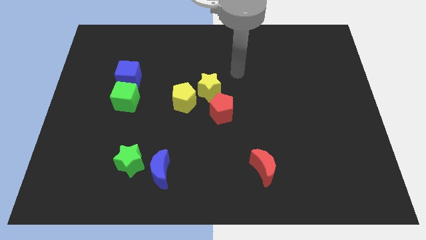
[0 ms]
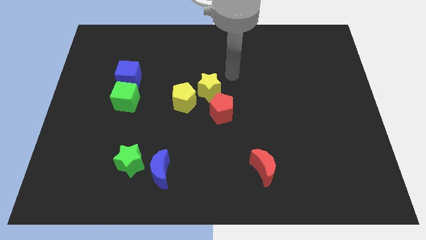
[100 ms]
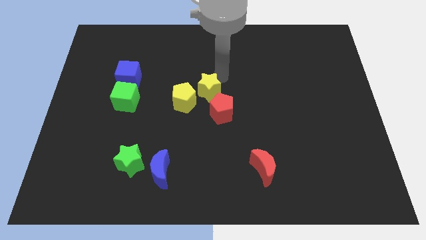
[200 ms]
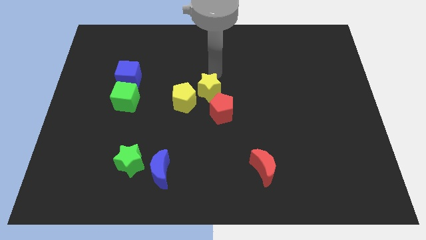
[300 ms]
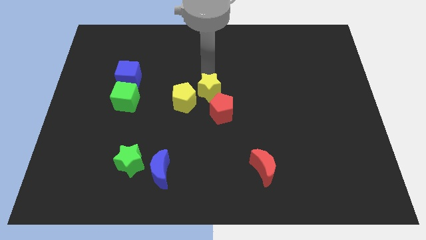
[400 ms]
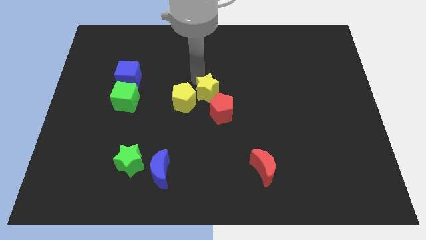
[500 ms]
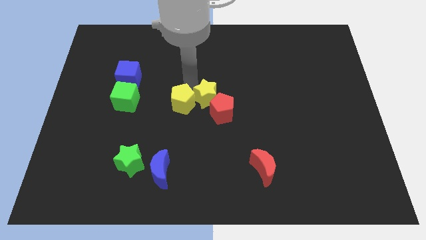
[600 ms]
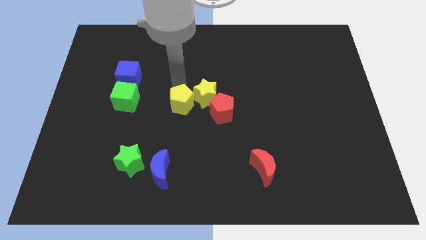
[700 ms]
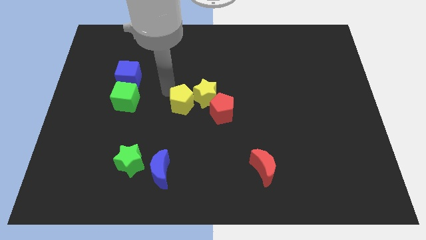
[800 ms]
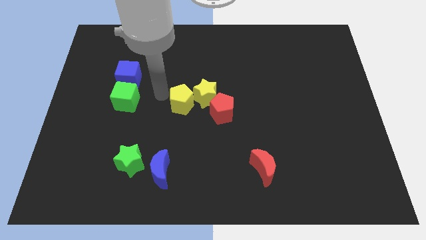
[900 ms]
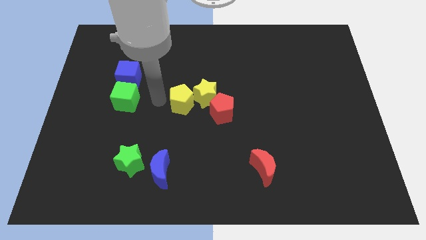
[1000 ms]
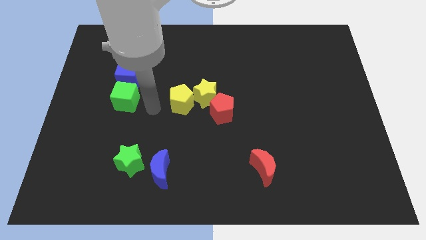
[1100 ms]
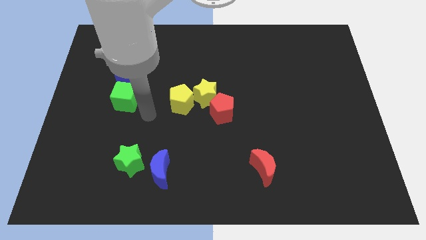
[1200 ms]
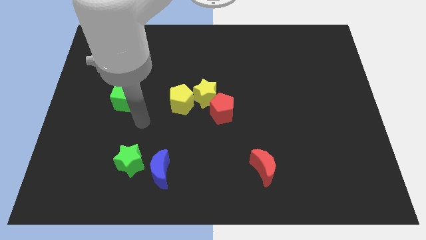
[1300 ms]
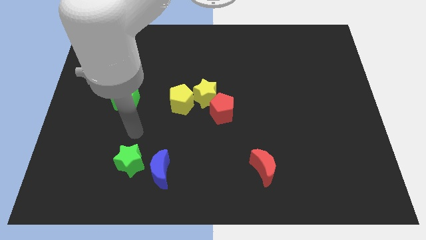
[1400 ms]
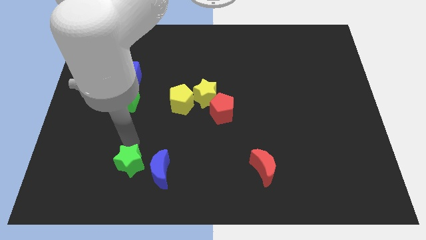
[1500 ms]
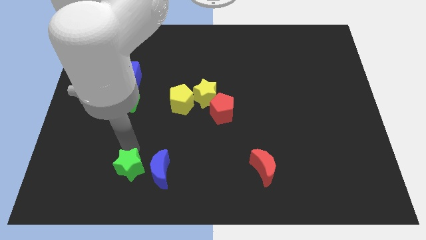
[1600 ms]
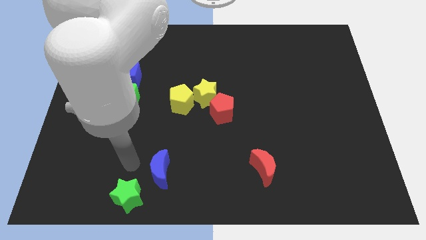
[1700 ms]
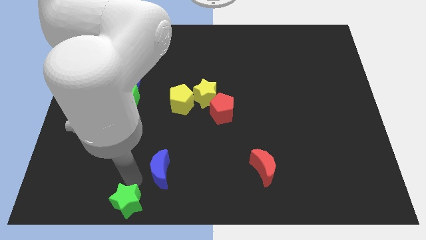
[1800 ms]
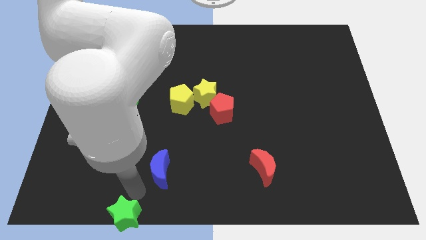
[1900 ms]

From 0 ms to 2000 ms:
pull the blue moon apart from the green star

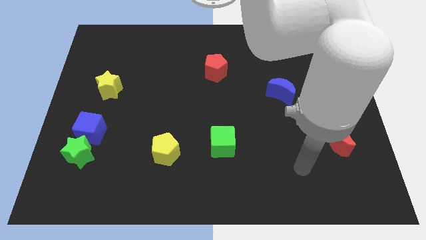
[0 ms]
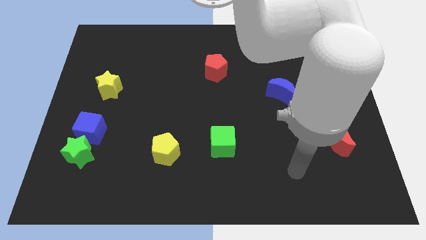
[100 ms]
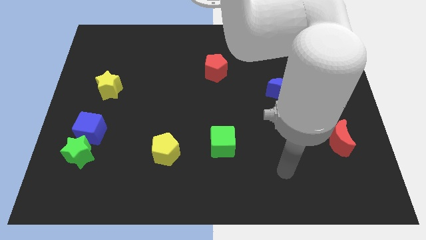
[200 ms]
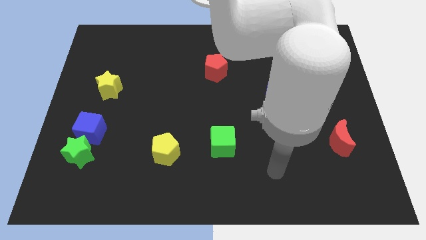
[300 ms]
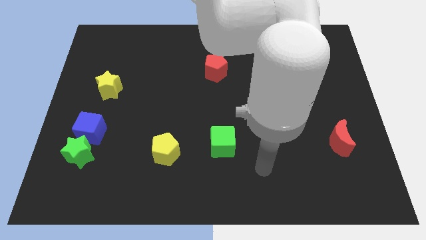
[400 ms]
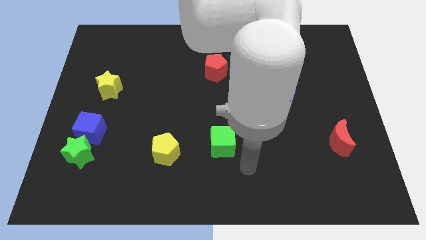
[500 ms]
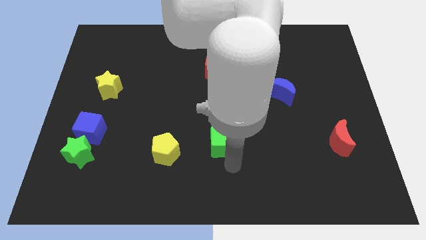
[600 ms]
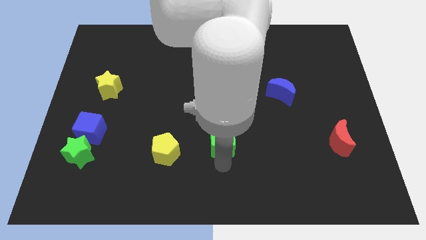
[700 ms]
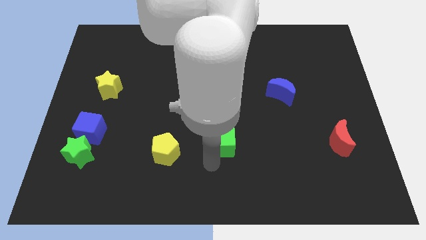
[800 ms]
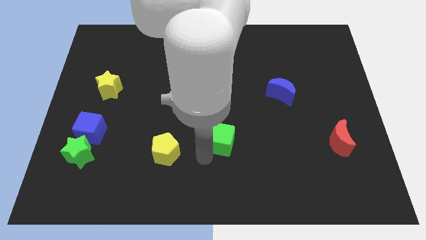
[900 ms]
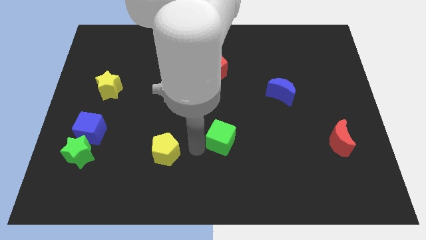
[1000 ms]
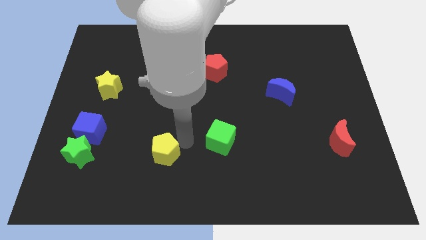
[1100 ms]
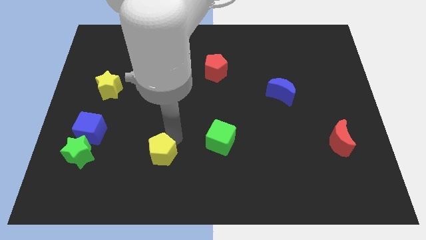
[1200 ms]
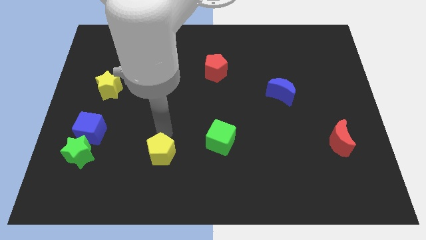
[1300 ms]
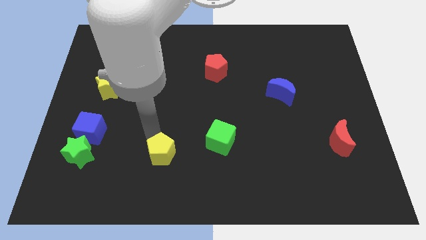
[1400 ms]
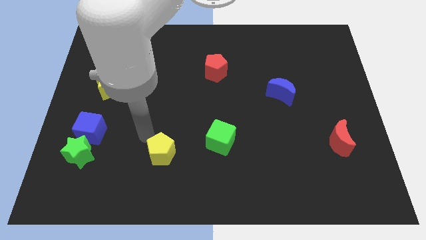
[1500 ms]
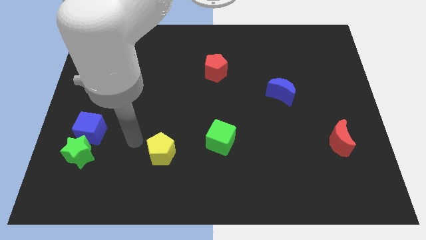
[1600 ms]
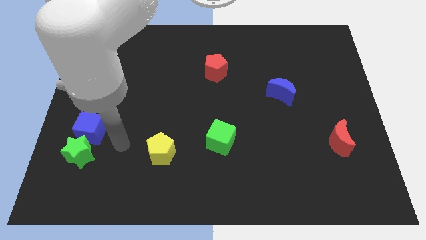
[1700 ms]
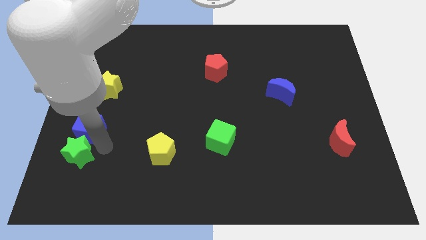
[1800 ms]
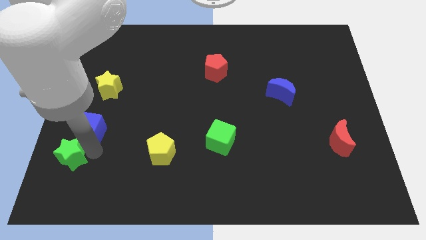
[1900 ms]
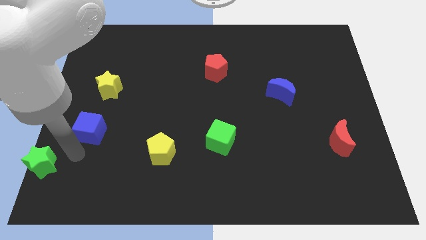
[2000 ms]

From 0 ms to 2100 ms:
separate the blue cube from the green star

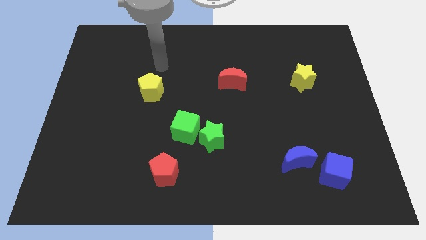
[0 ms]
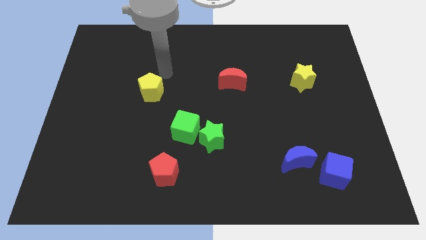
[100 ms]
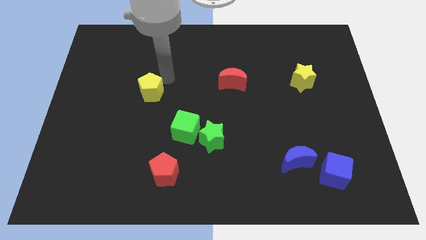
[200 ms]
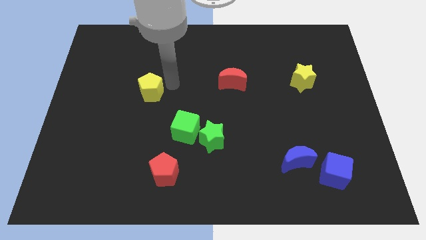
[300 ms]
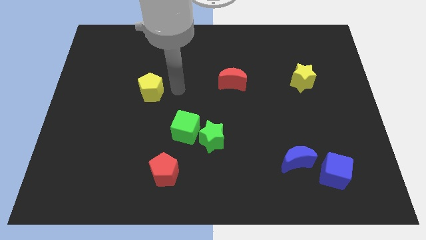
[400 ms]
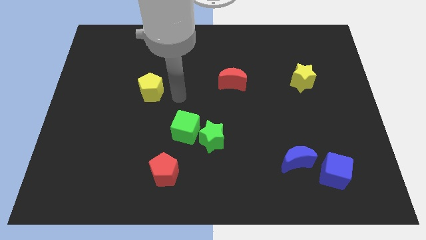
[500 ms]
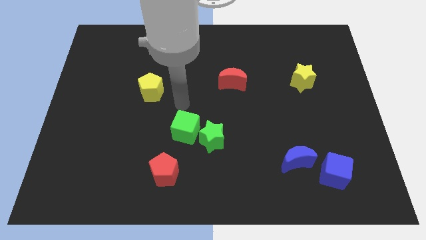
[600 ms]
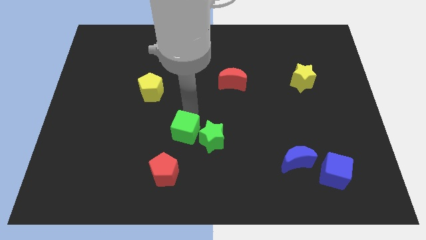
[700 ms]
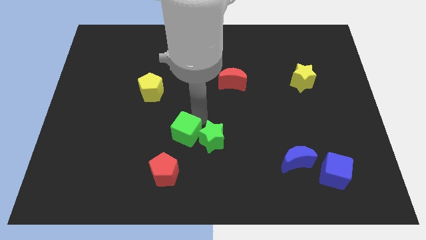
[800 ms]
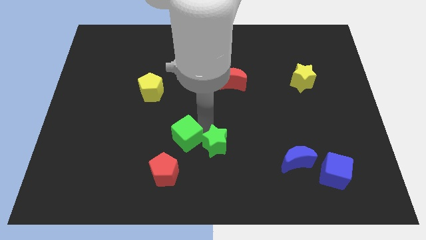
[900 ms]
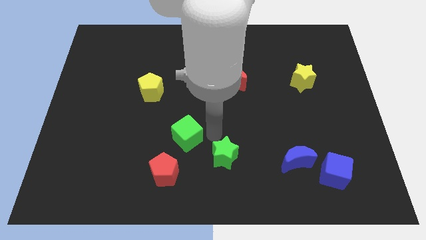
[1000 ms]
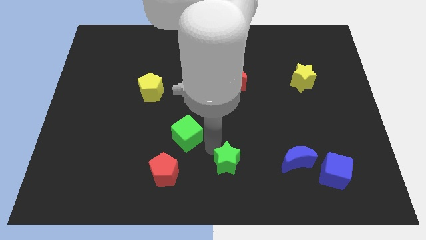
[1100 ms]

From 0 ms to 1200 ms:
separate the green cube from the green star

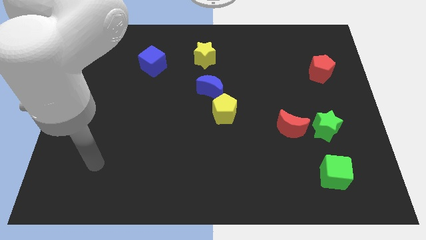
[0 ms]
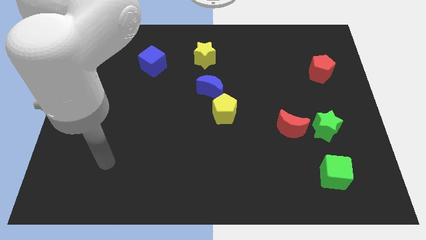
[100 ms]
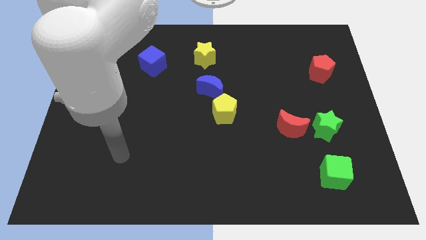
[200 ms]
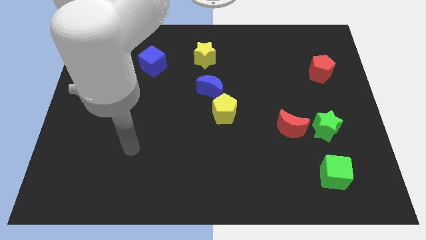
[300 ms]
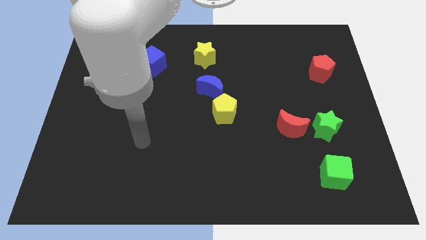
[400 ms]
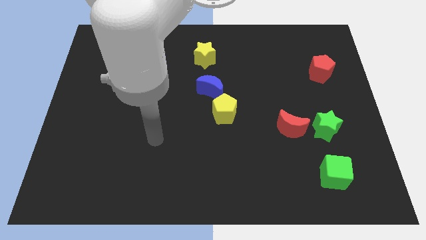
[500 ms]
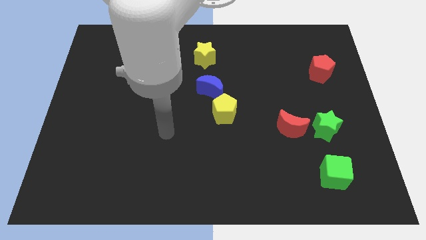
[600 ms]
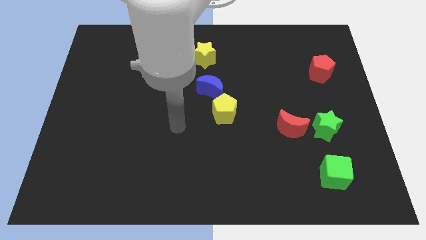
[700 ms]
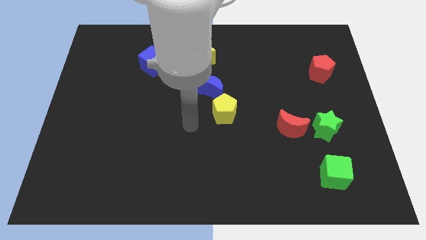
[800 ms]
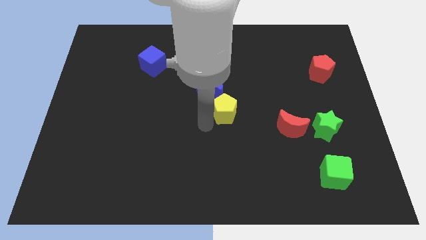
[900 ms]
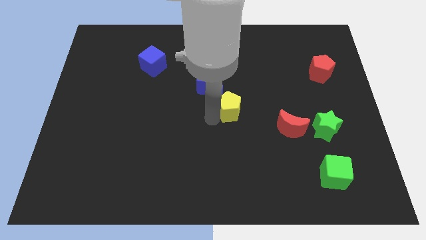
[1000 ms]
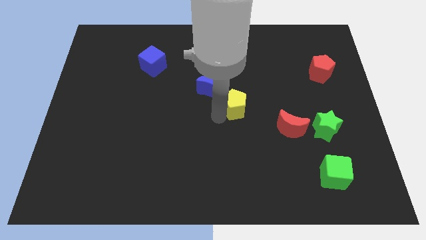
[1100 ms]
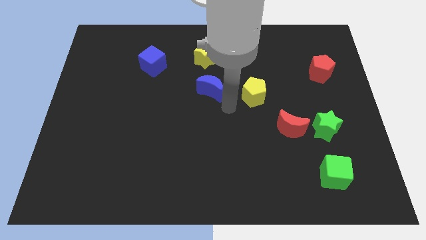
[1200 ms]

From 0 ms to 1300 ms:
move the blue moon away from the yellow pentagon

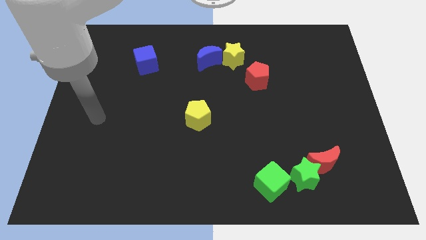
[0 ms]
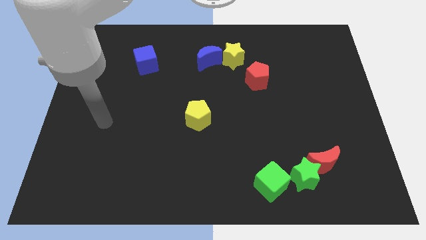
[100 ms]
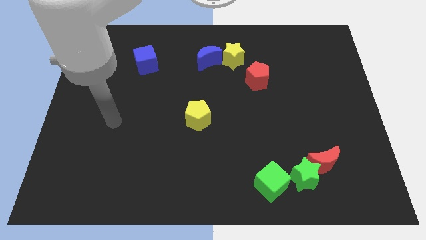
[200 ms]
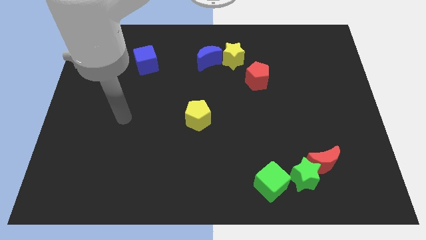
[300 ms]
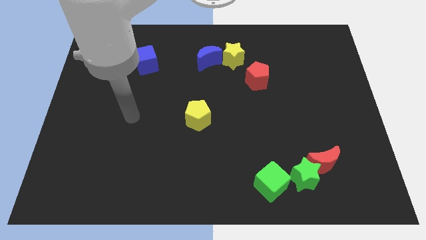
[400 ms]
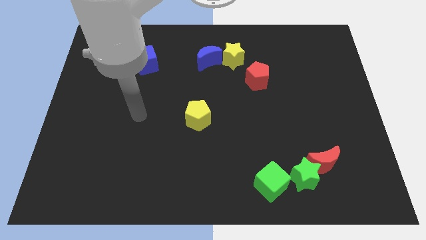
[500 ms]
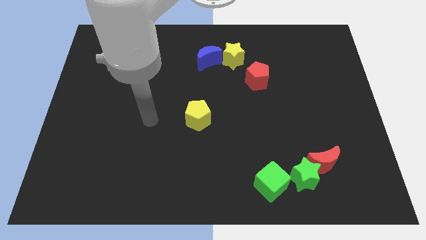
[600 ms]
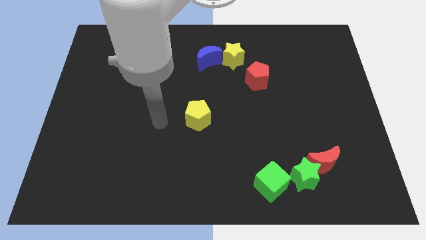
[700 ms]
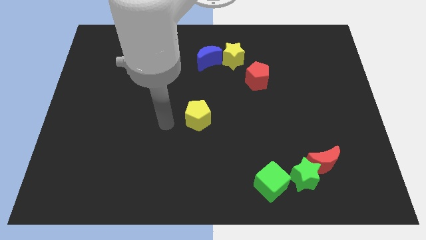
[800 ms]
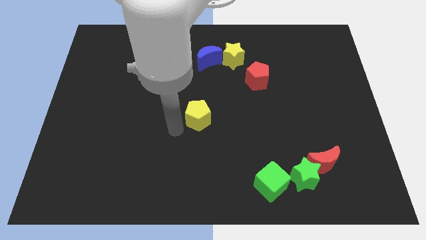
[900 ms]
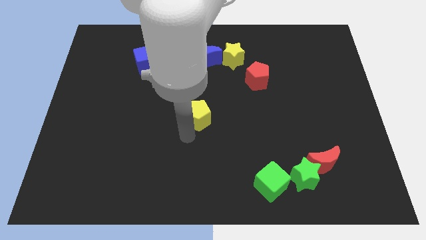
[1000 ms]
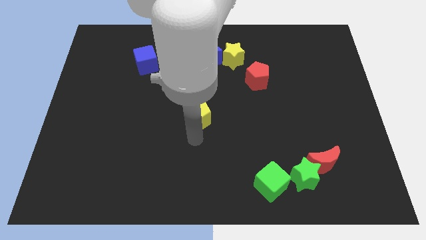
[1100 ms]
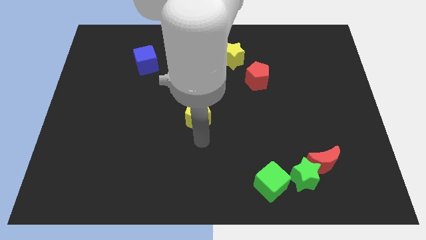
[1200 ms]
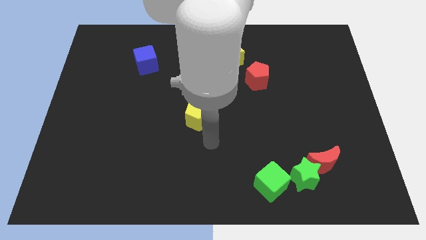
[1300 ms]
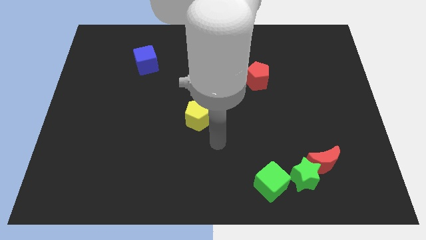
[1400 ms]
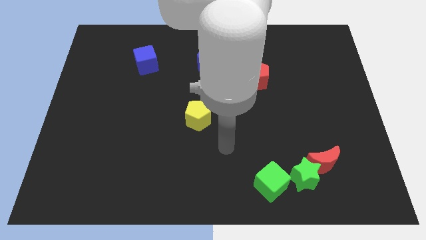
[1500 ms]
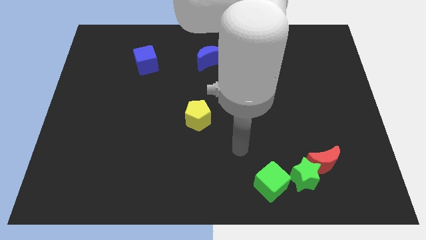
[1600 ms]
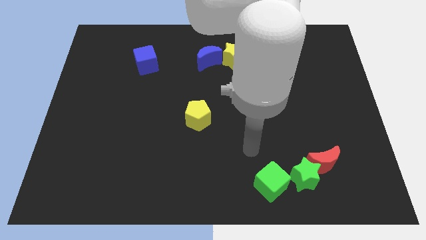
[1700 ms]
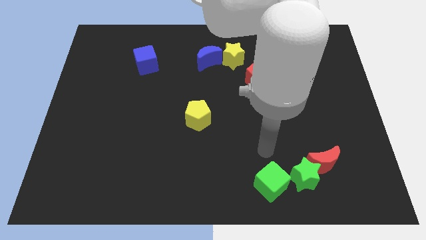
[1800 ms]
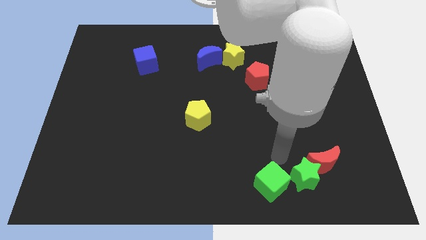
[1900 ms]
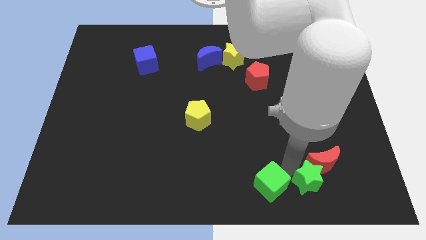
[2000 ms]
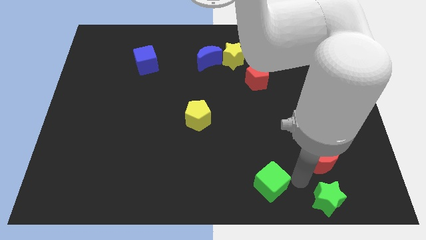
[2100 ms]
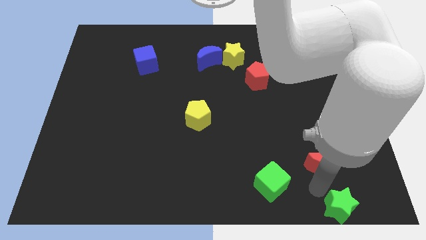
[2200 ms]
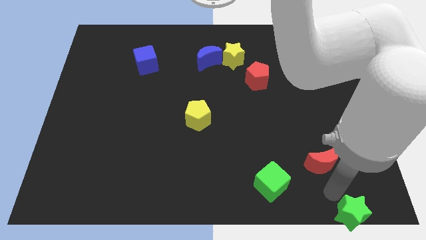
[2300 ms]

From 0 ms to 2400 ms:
pull the red moon apart from the green star

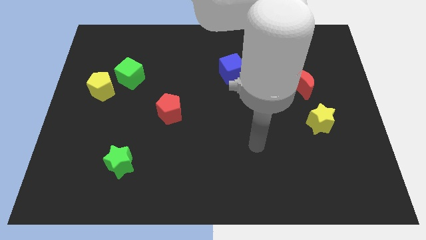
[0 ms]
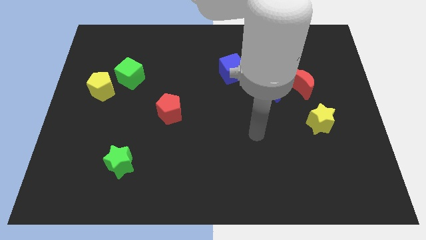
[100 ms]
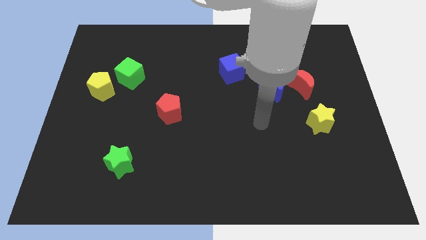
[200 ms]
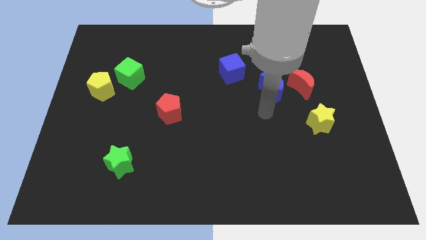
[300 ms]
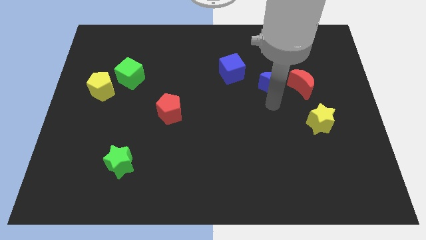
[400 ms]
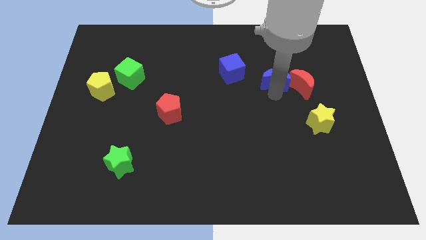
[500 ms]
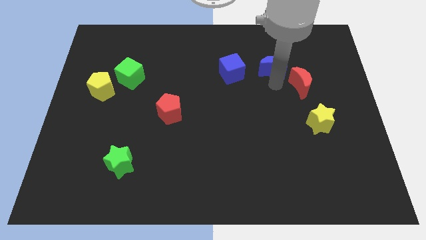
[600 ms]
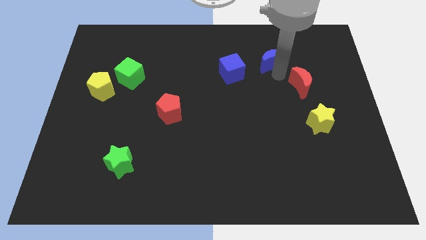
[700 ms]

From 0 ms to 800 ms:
move the red moon away from the blue moon
